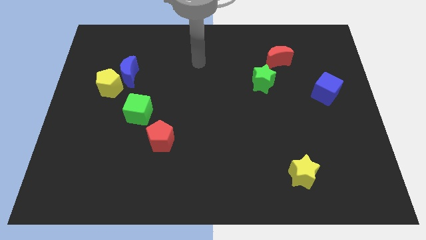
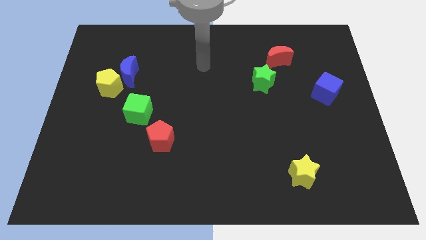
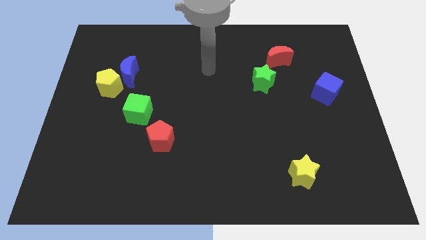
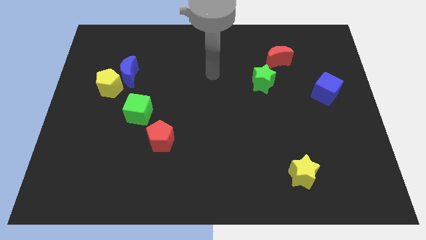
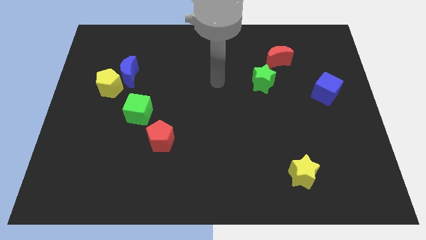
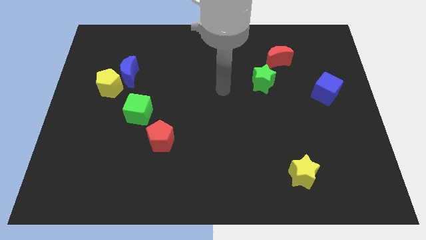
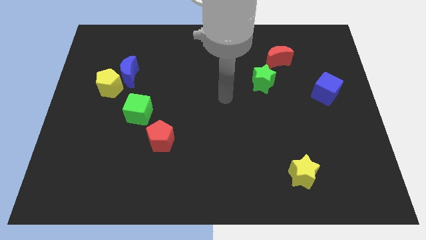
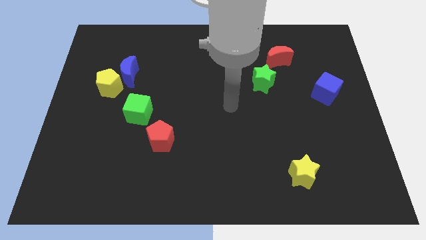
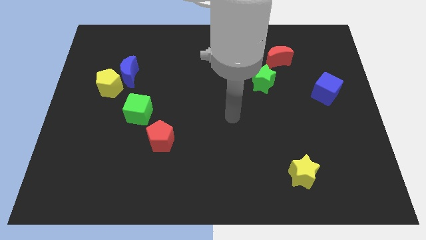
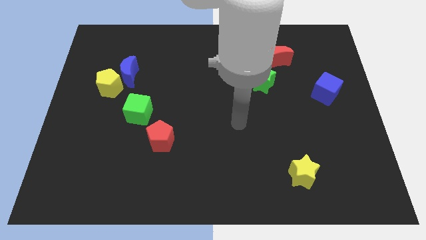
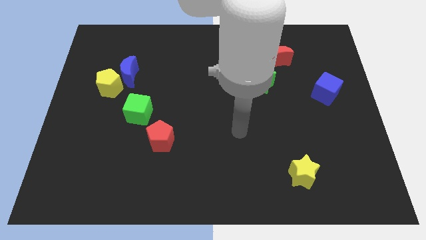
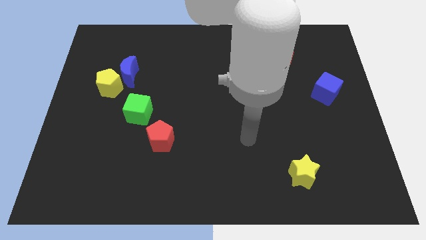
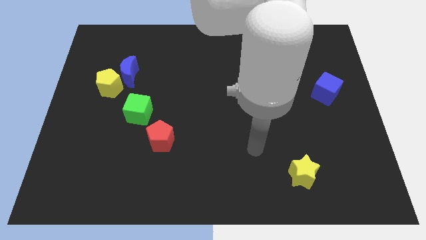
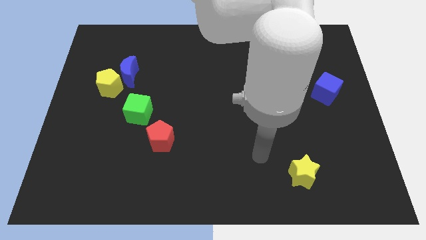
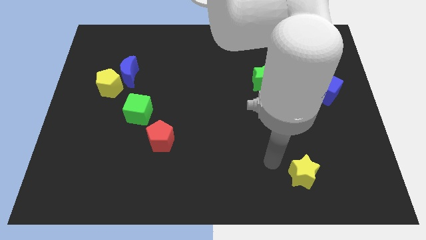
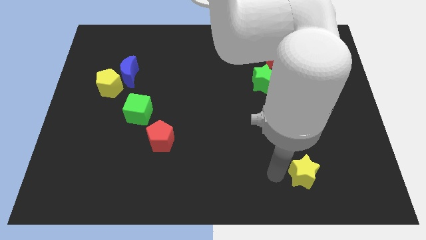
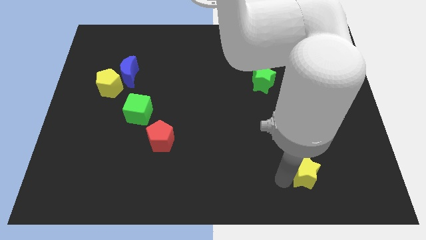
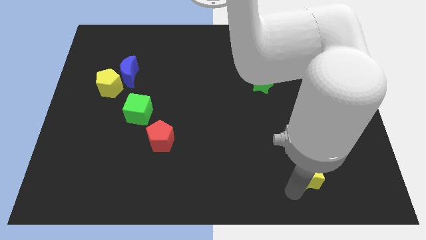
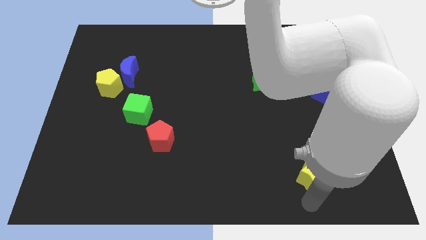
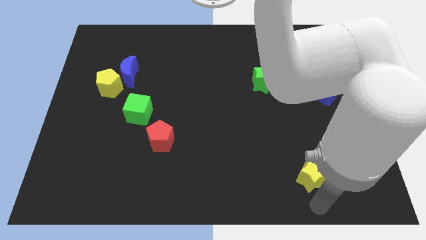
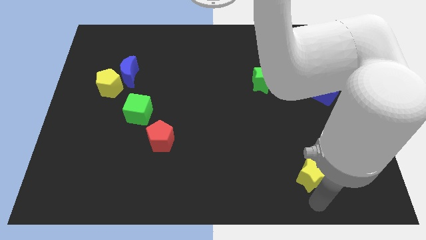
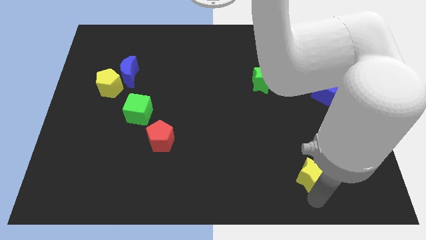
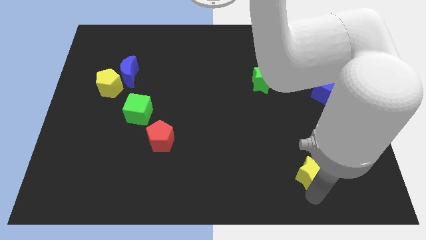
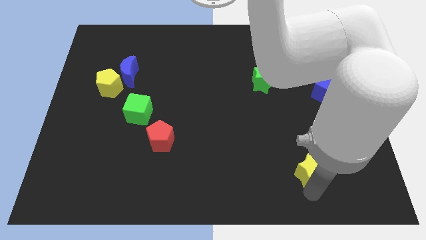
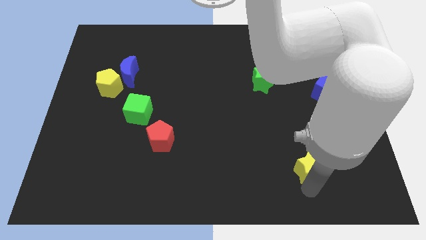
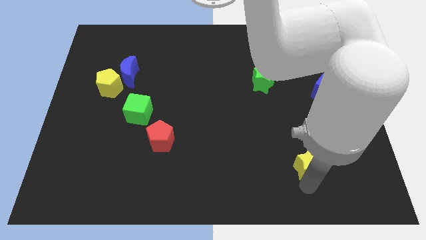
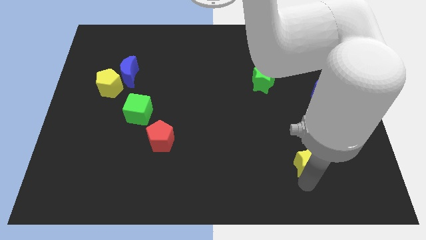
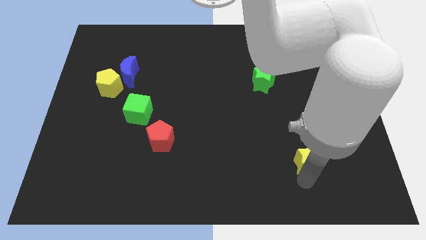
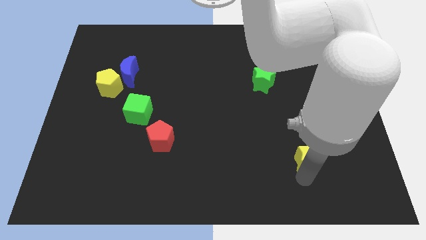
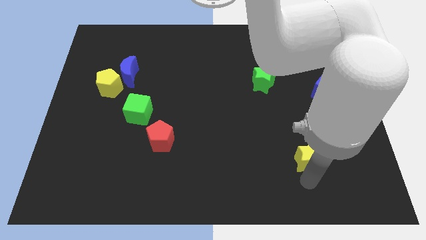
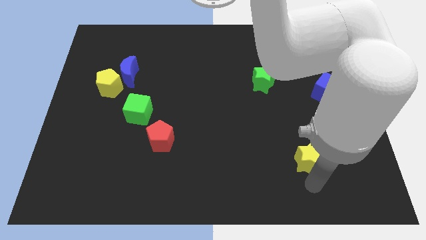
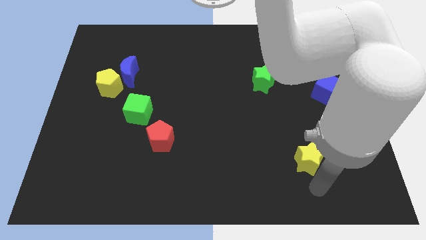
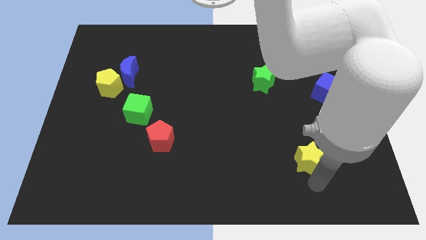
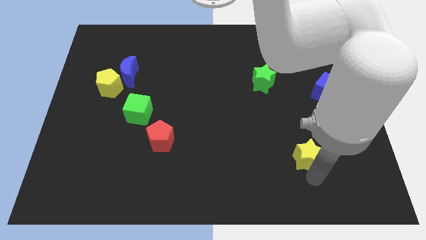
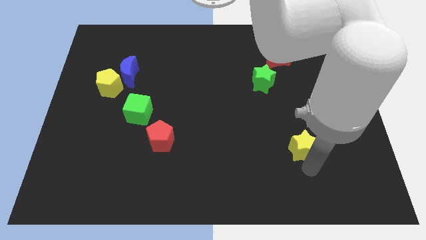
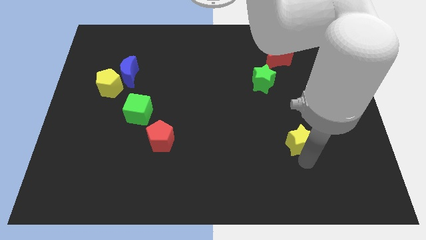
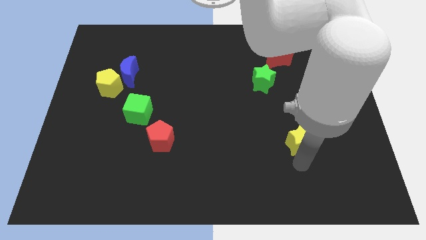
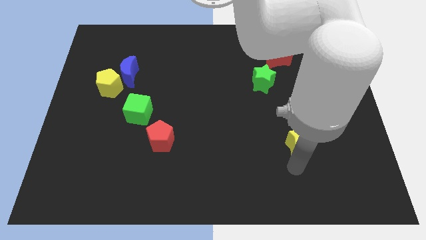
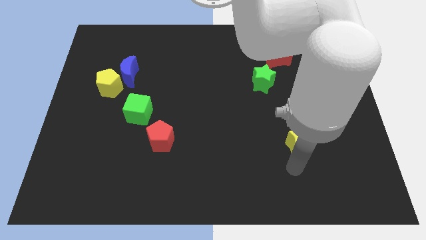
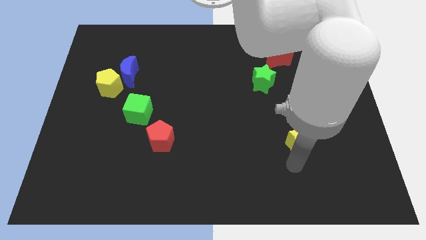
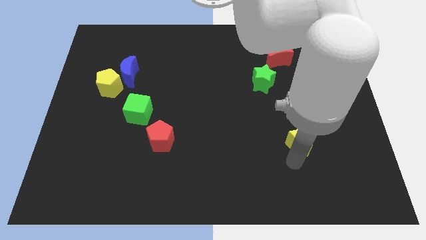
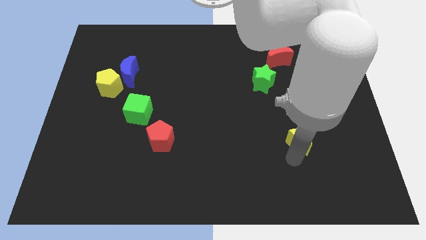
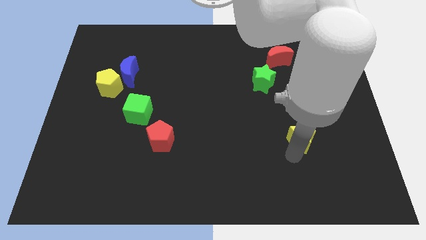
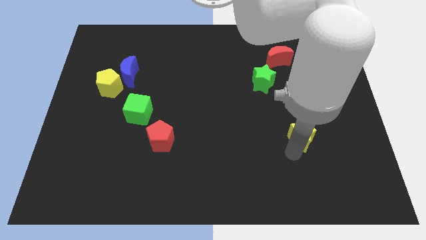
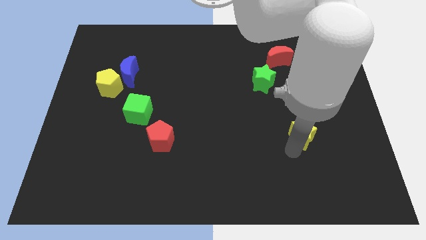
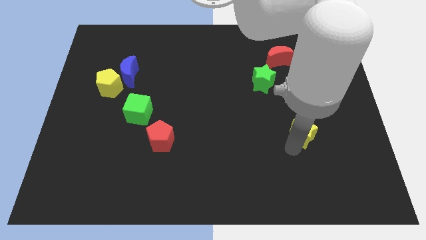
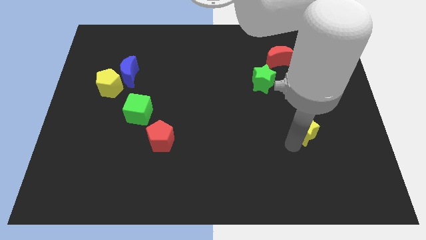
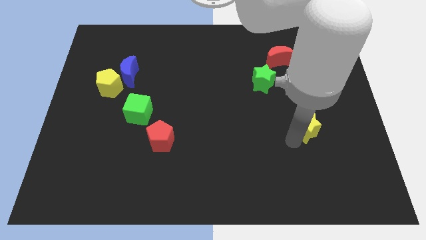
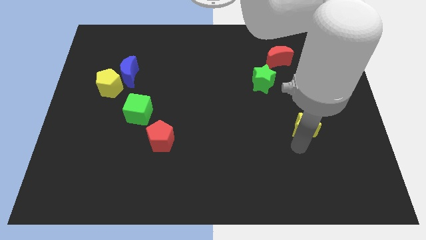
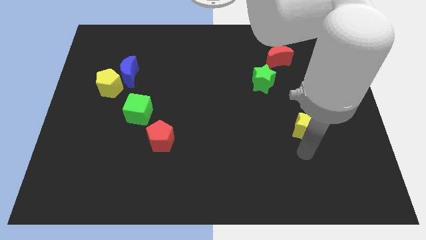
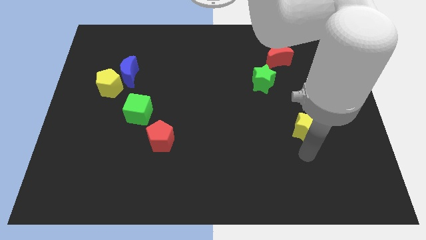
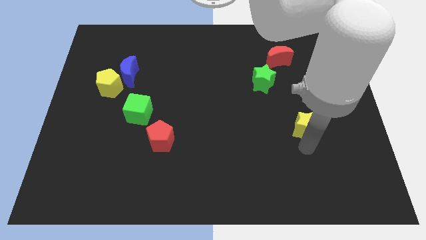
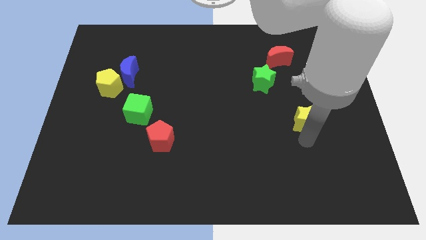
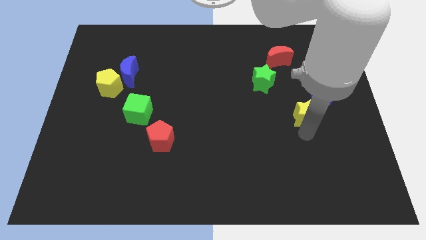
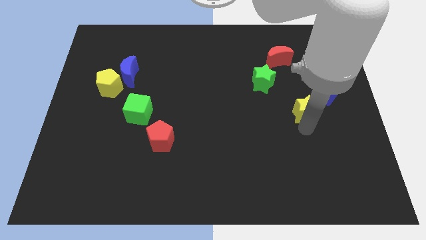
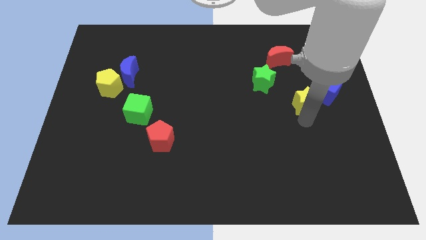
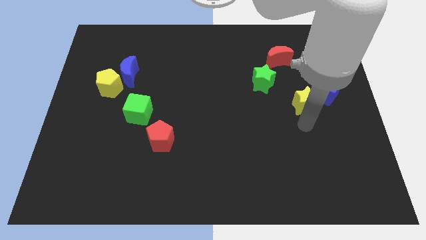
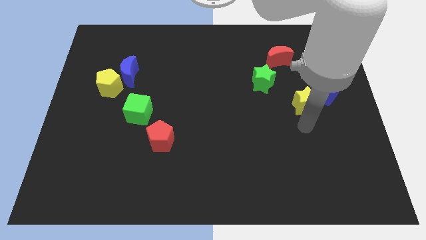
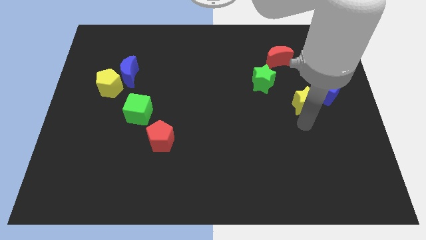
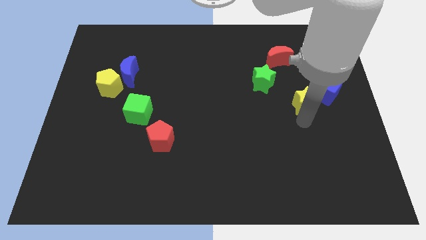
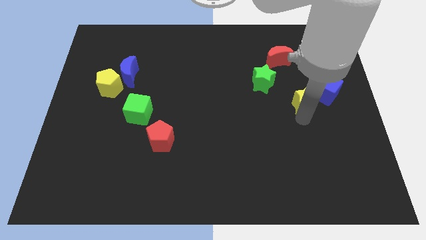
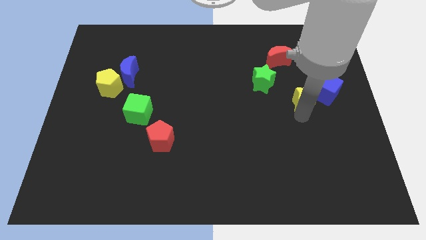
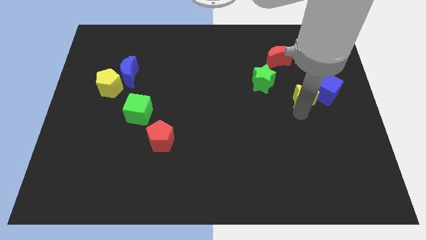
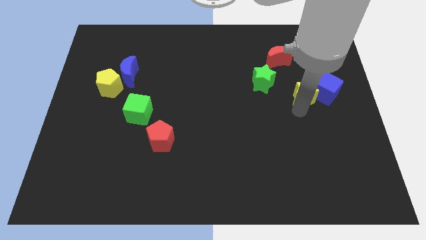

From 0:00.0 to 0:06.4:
put the yellow star right of the green star
